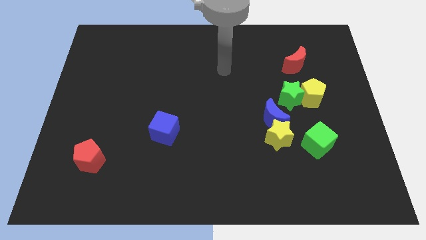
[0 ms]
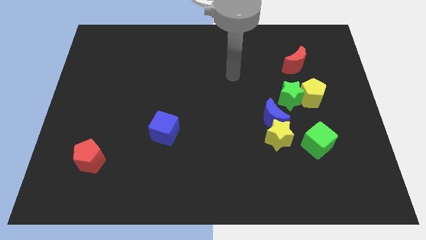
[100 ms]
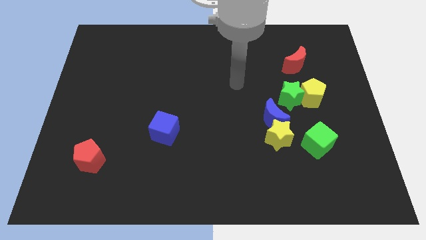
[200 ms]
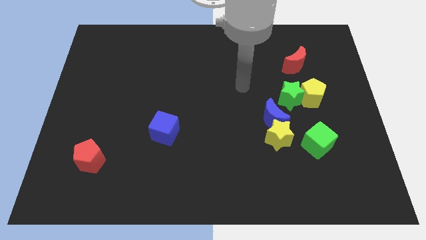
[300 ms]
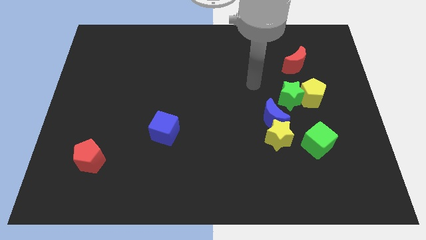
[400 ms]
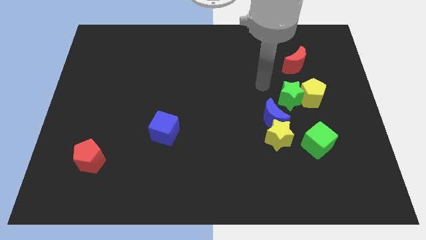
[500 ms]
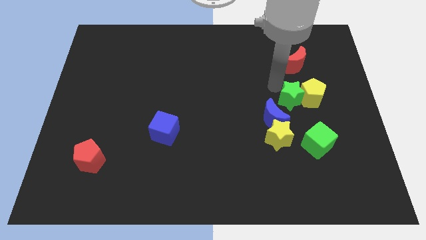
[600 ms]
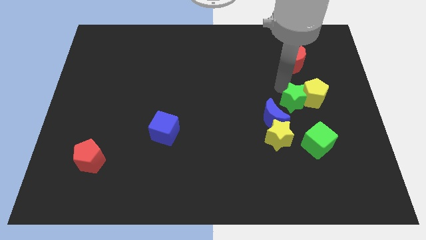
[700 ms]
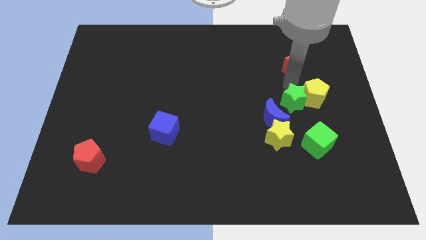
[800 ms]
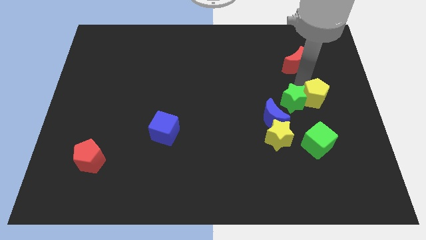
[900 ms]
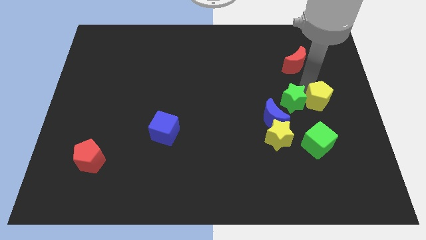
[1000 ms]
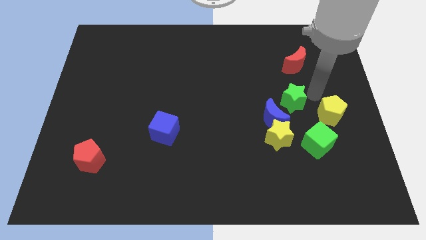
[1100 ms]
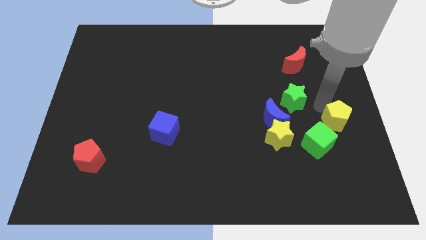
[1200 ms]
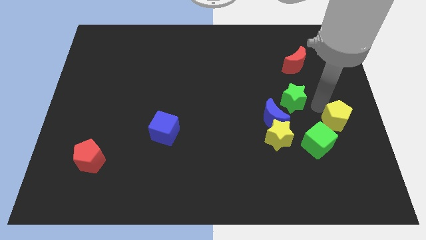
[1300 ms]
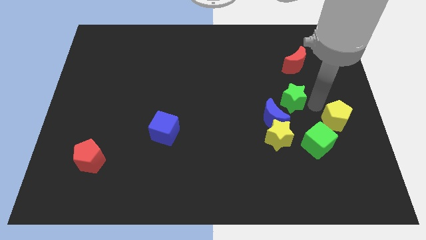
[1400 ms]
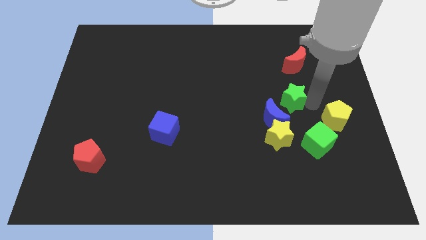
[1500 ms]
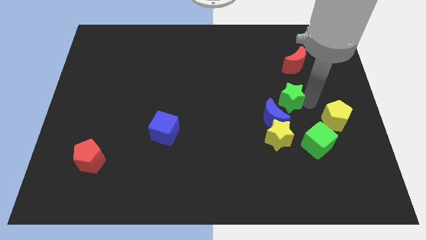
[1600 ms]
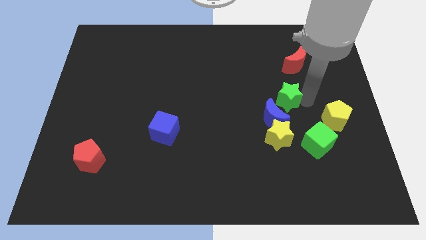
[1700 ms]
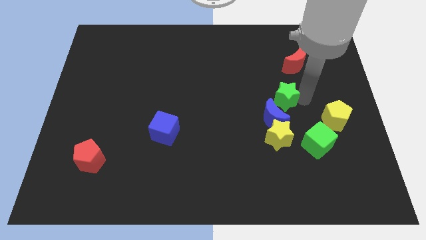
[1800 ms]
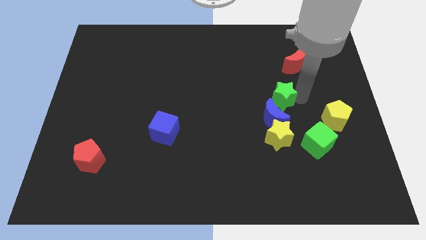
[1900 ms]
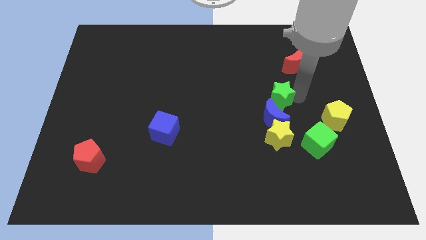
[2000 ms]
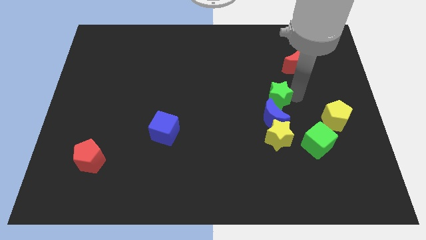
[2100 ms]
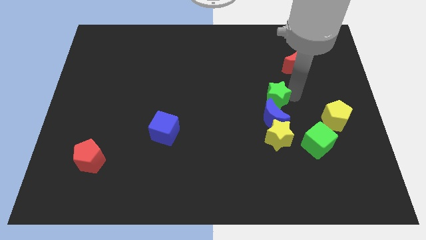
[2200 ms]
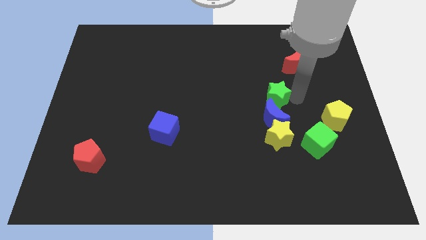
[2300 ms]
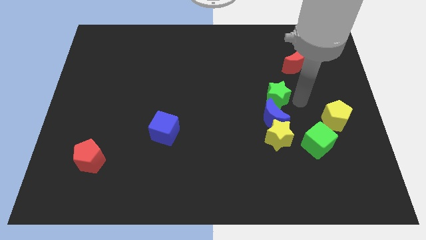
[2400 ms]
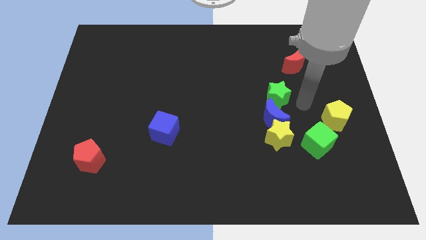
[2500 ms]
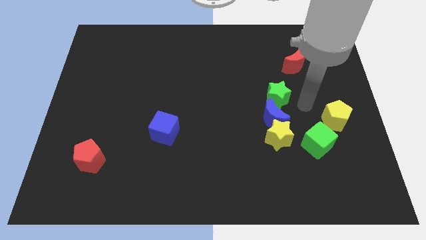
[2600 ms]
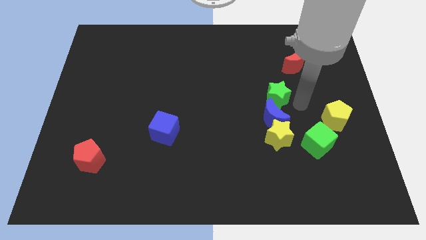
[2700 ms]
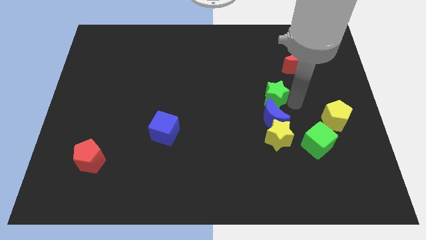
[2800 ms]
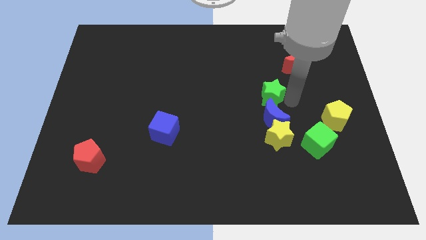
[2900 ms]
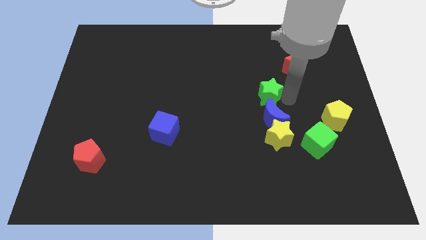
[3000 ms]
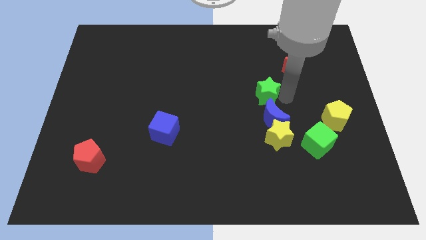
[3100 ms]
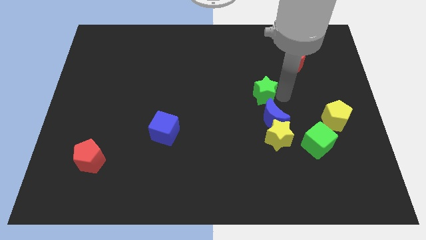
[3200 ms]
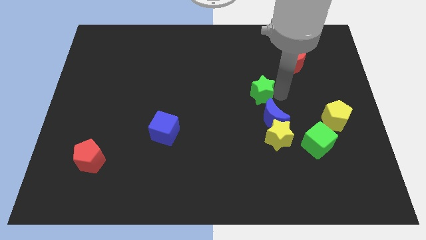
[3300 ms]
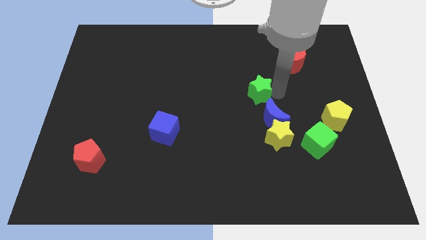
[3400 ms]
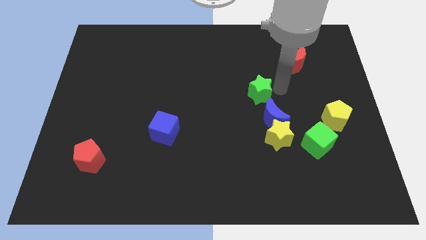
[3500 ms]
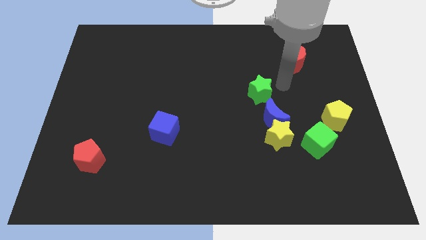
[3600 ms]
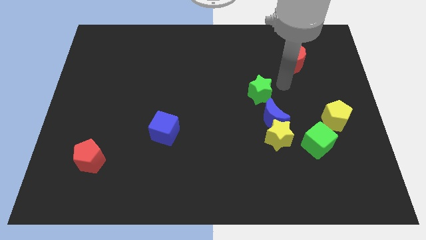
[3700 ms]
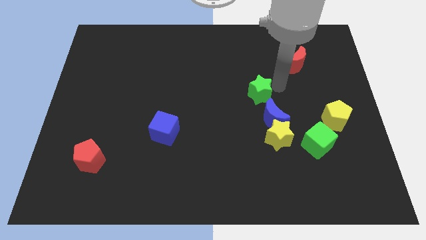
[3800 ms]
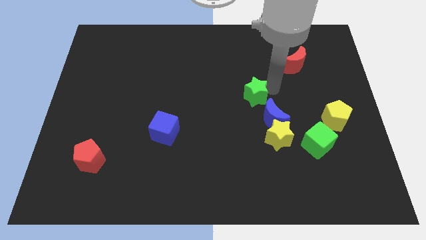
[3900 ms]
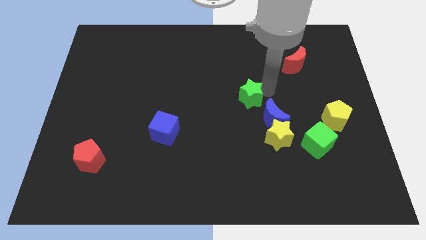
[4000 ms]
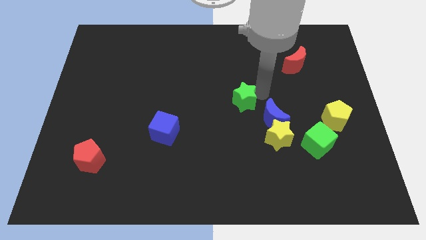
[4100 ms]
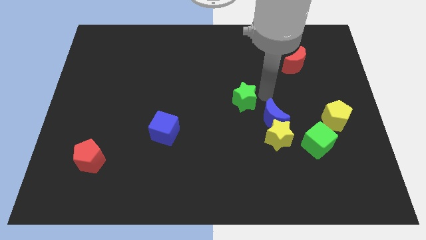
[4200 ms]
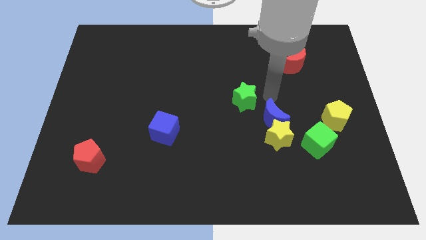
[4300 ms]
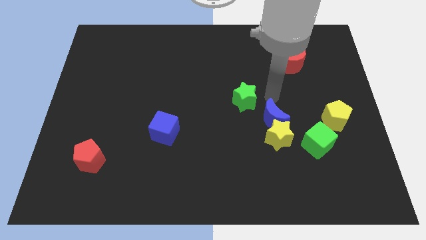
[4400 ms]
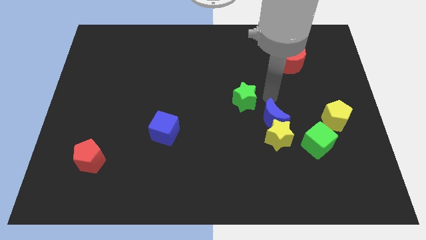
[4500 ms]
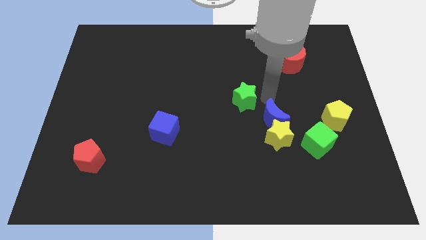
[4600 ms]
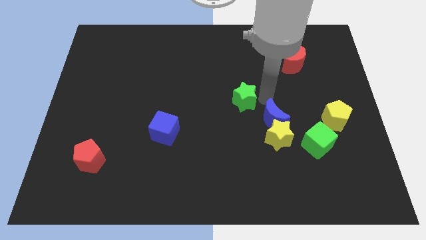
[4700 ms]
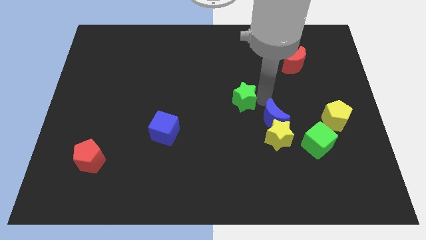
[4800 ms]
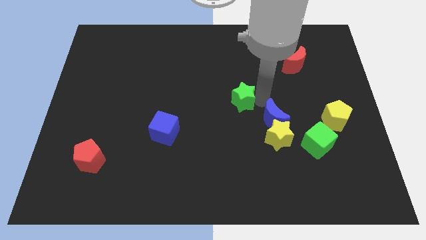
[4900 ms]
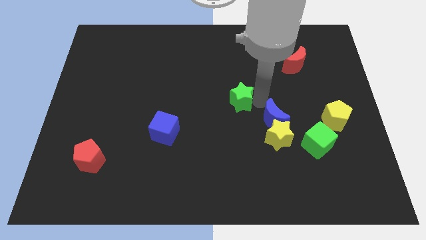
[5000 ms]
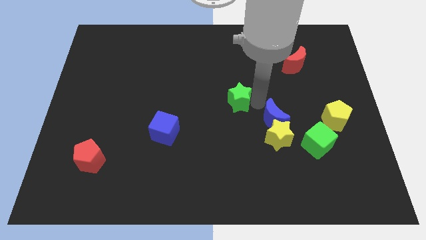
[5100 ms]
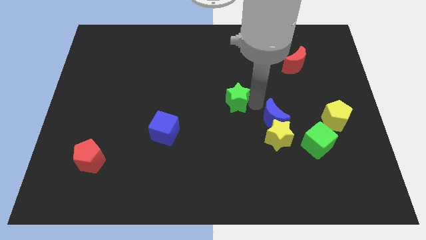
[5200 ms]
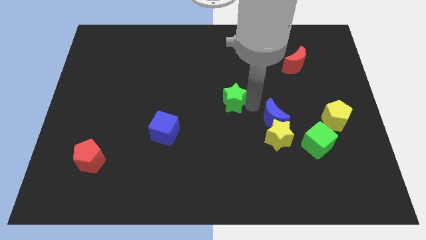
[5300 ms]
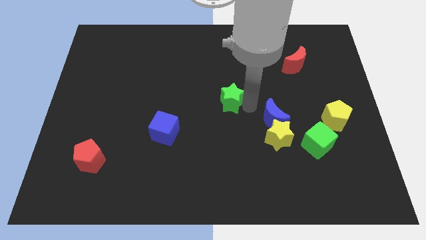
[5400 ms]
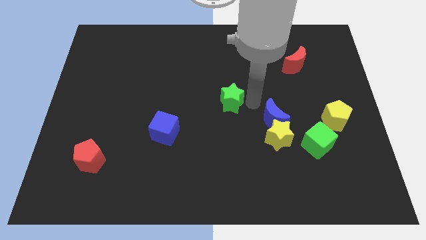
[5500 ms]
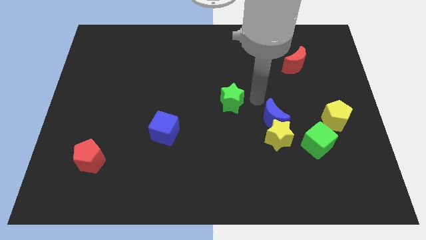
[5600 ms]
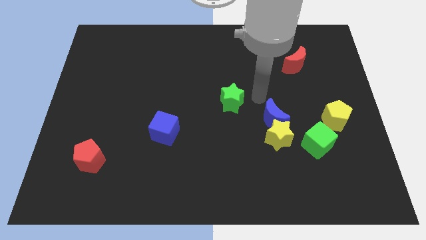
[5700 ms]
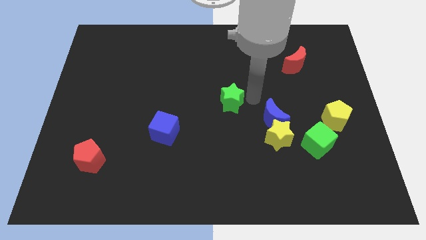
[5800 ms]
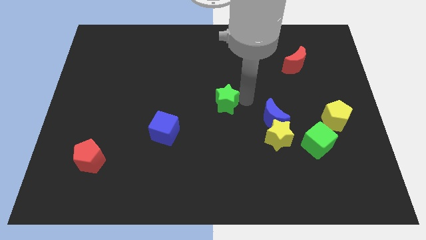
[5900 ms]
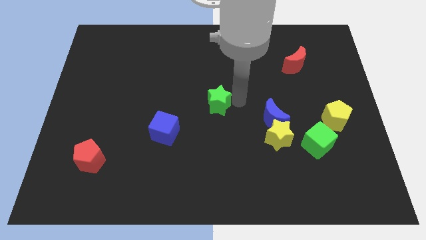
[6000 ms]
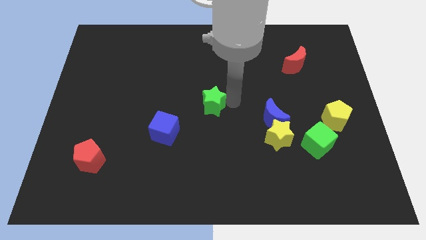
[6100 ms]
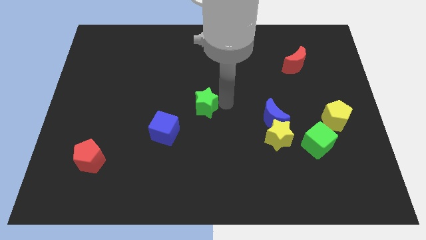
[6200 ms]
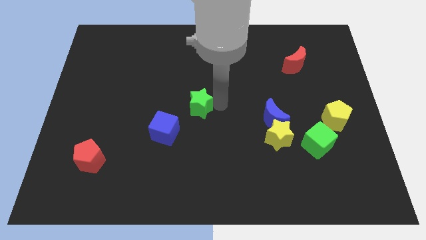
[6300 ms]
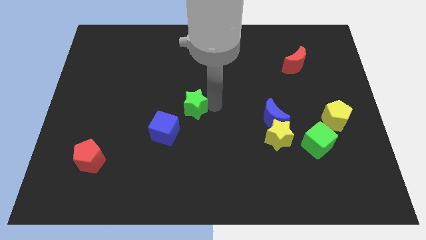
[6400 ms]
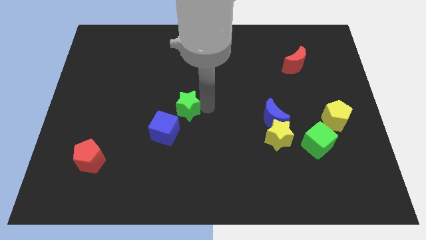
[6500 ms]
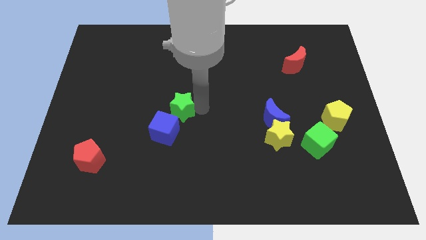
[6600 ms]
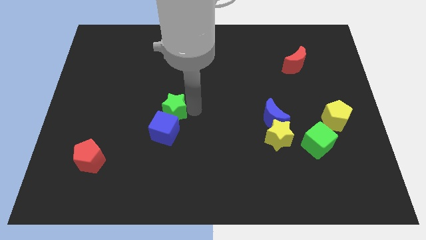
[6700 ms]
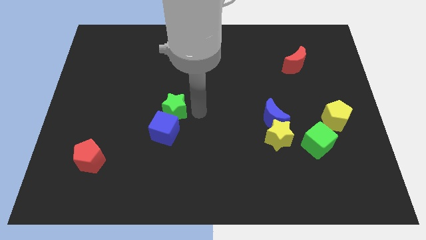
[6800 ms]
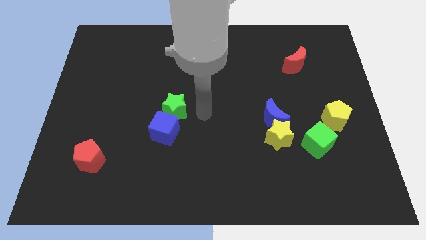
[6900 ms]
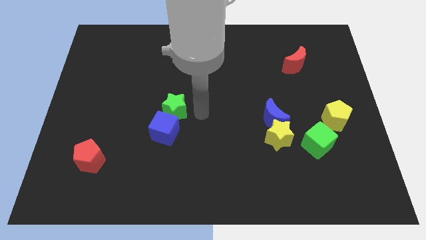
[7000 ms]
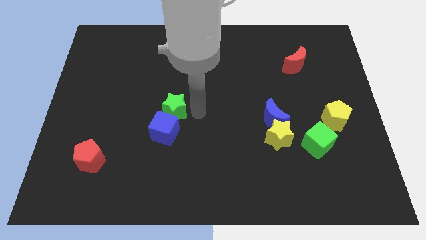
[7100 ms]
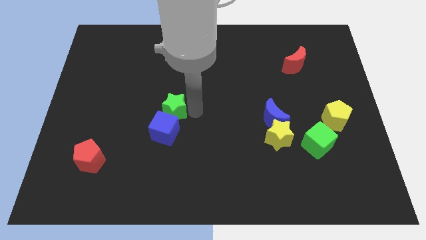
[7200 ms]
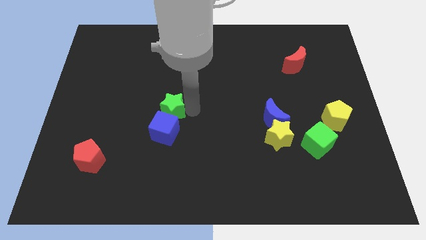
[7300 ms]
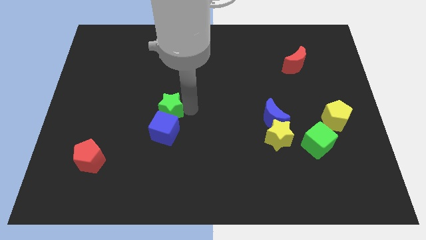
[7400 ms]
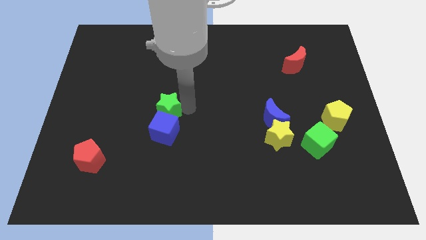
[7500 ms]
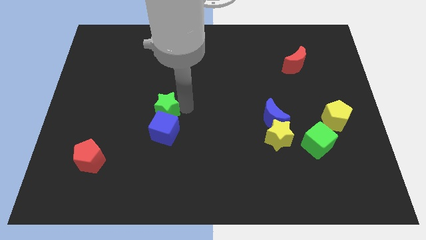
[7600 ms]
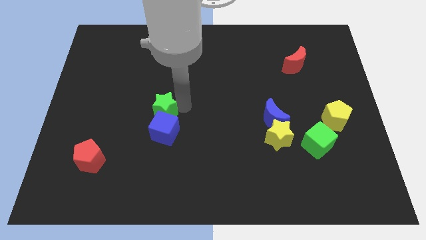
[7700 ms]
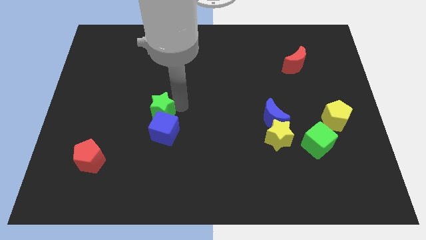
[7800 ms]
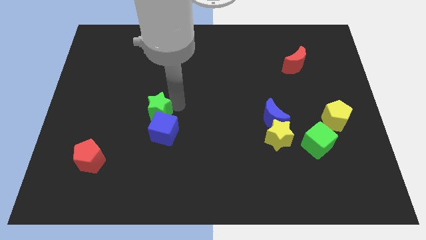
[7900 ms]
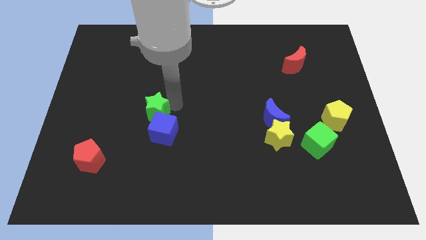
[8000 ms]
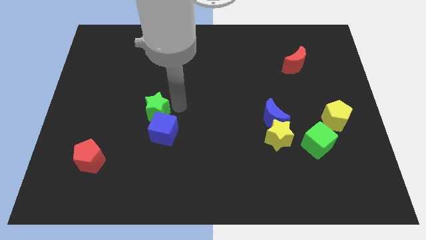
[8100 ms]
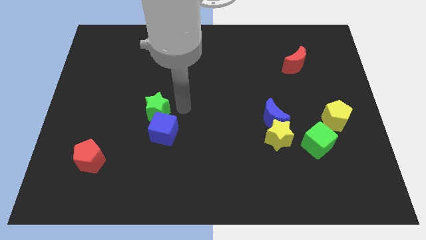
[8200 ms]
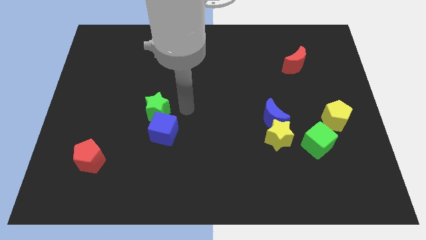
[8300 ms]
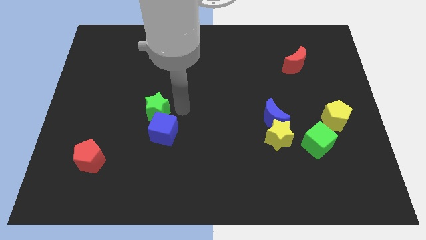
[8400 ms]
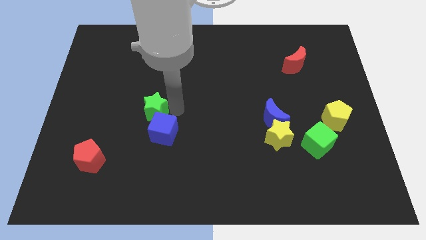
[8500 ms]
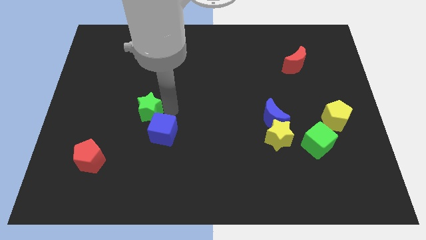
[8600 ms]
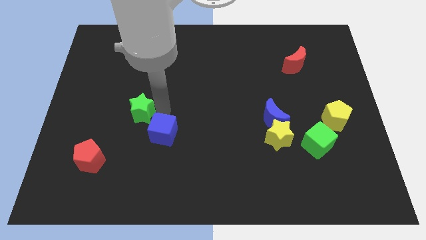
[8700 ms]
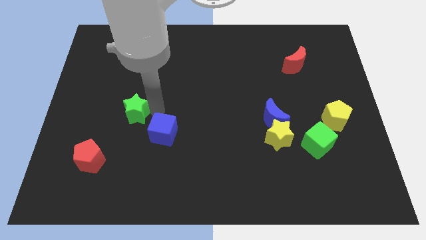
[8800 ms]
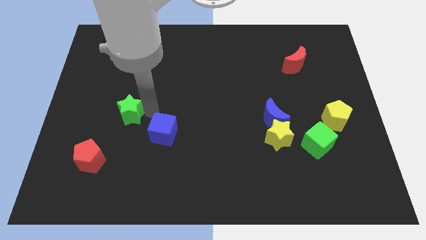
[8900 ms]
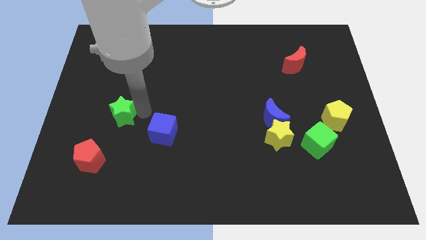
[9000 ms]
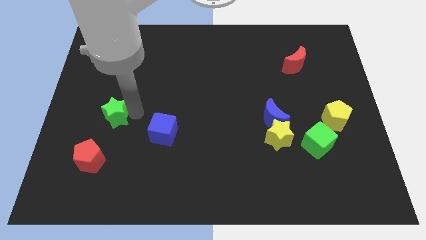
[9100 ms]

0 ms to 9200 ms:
slide the green star to the top of the red pentagon
